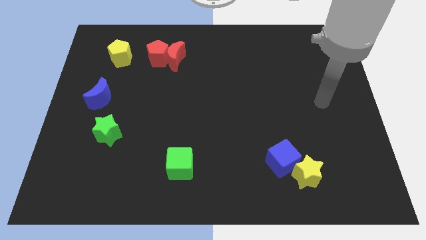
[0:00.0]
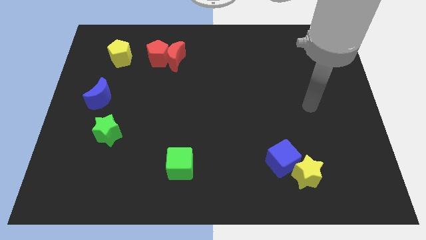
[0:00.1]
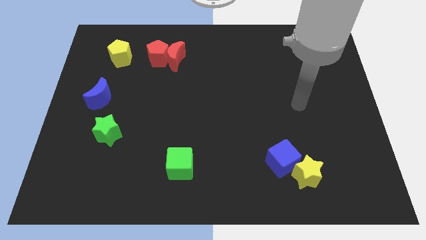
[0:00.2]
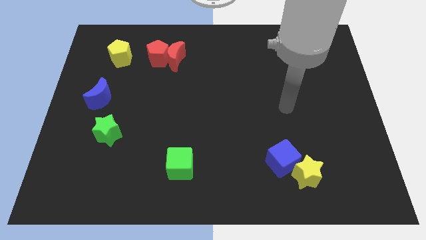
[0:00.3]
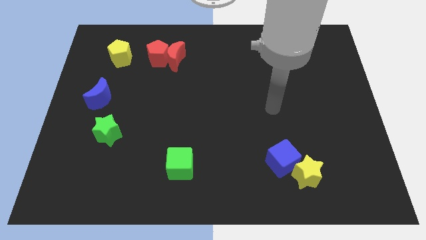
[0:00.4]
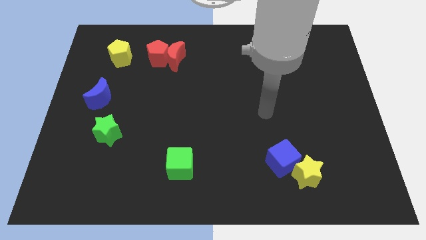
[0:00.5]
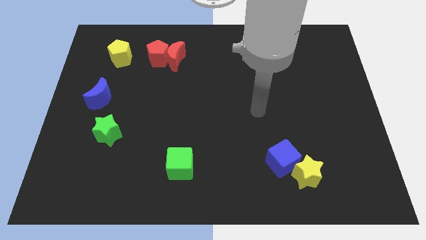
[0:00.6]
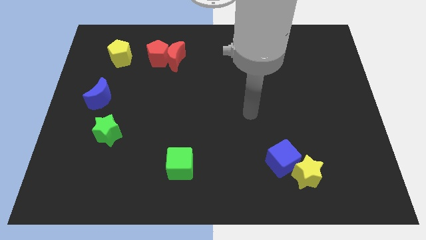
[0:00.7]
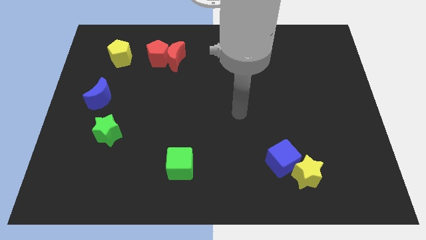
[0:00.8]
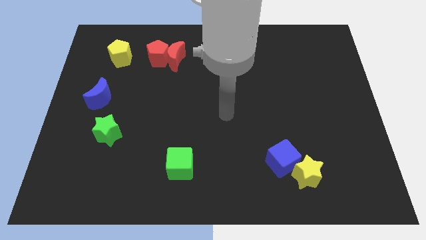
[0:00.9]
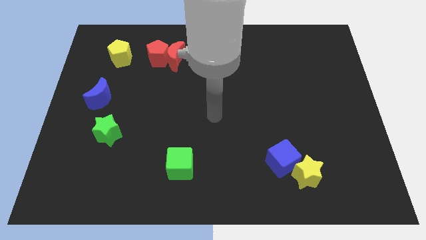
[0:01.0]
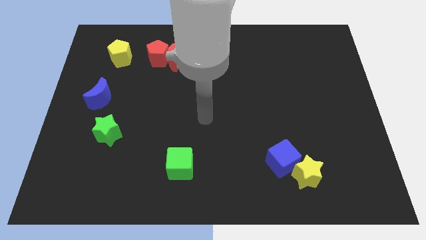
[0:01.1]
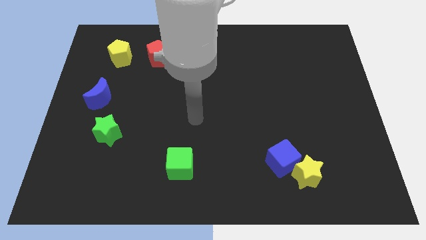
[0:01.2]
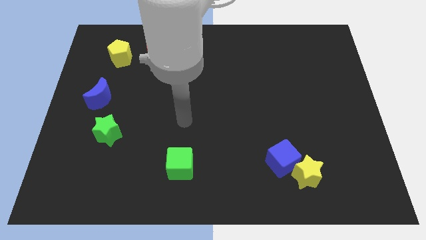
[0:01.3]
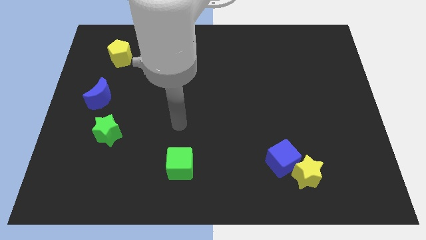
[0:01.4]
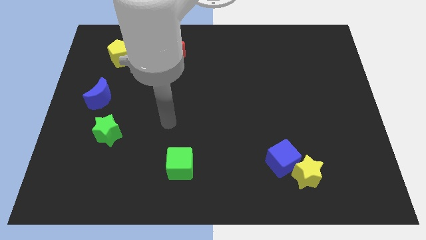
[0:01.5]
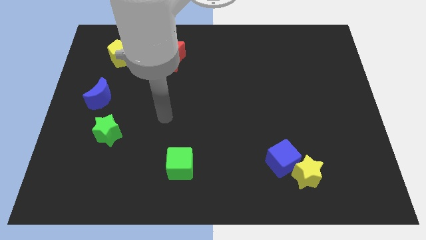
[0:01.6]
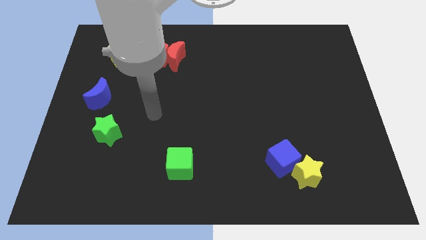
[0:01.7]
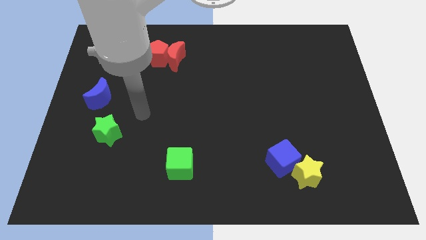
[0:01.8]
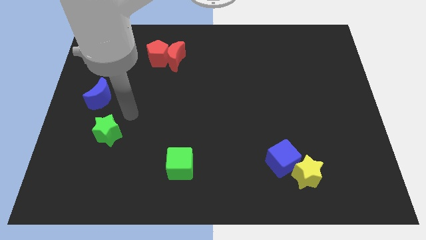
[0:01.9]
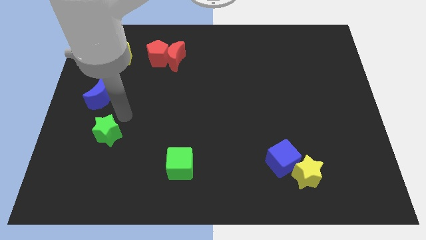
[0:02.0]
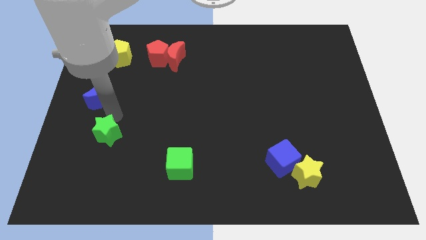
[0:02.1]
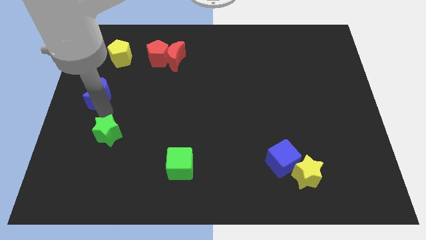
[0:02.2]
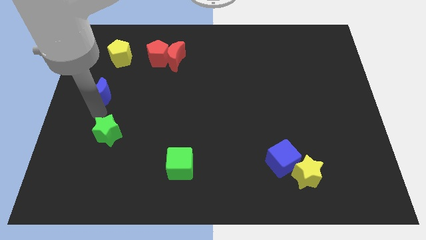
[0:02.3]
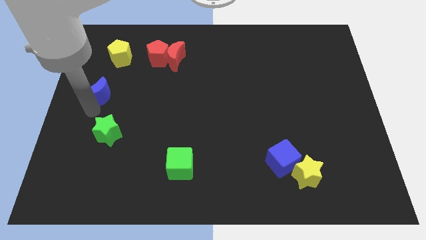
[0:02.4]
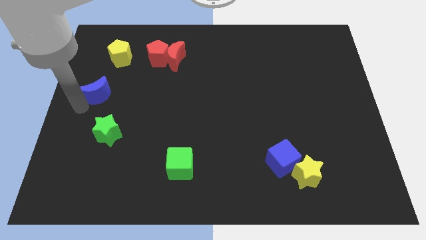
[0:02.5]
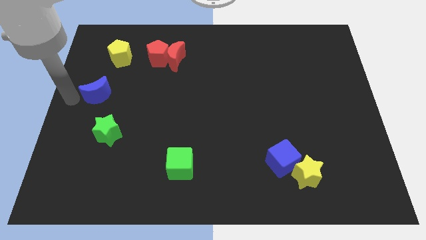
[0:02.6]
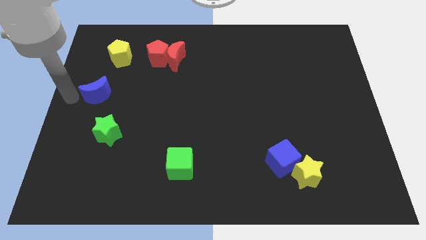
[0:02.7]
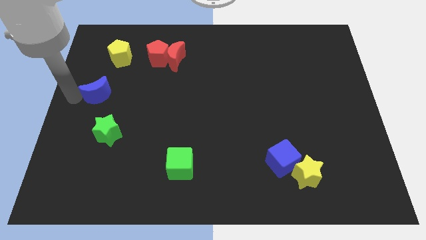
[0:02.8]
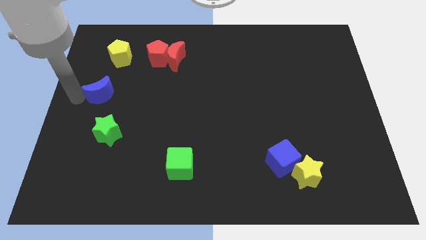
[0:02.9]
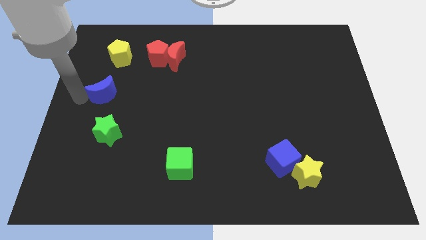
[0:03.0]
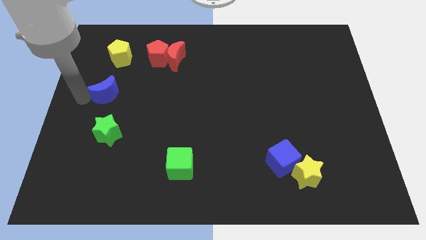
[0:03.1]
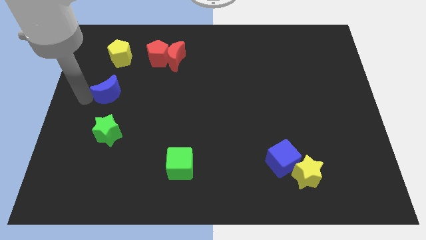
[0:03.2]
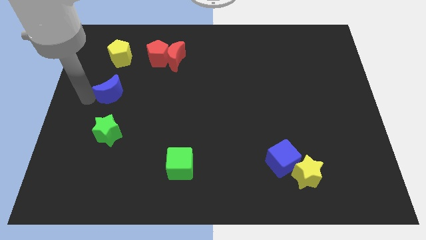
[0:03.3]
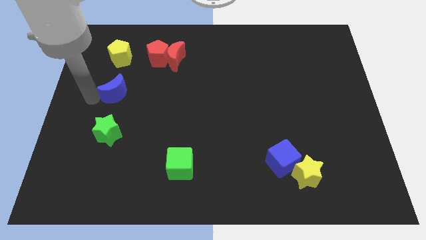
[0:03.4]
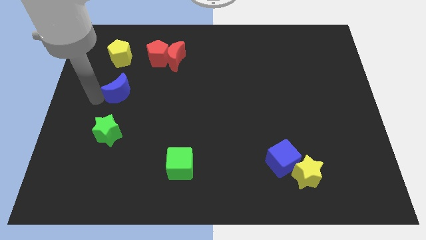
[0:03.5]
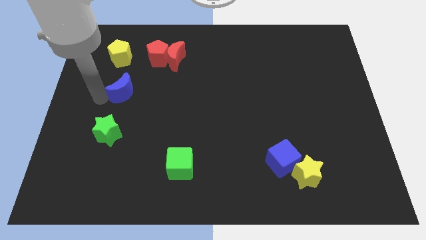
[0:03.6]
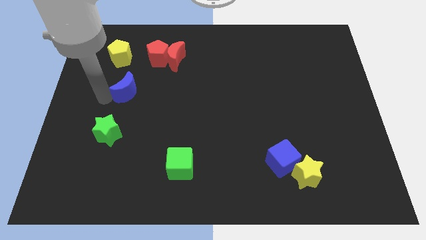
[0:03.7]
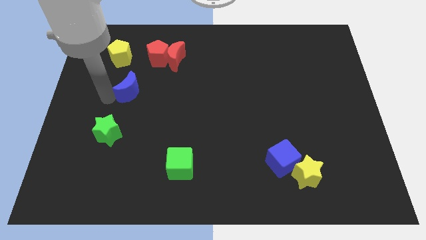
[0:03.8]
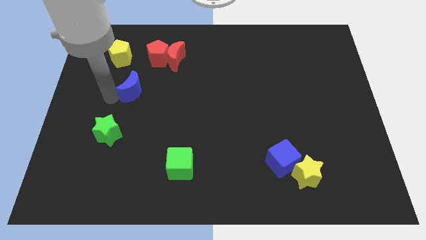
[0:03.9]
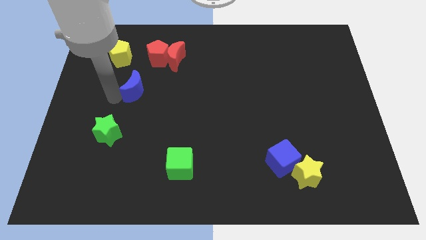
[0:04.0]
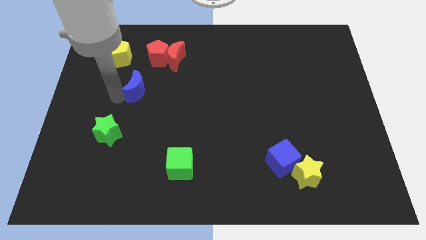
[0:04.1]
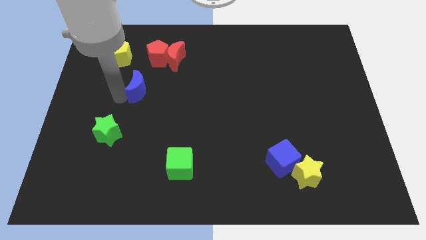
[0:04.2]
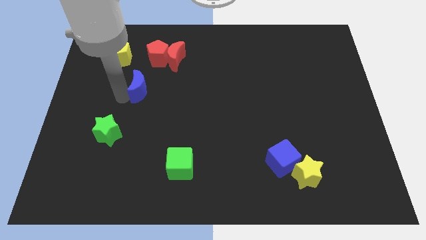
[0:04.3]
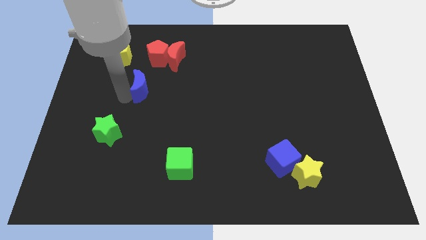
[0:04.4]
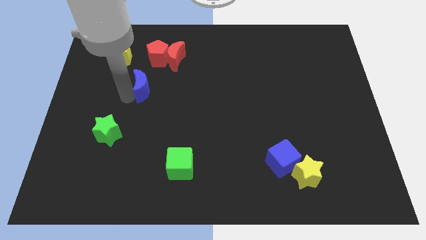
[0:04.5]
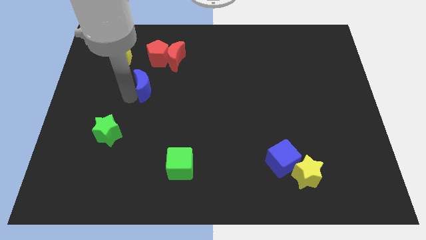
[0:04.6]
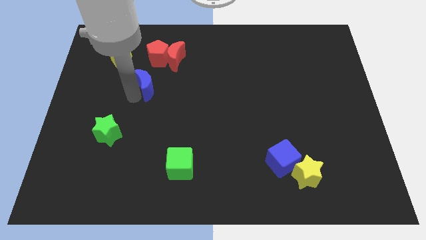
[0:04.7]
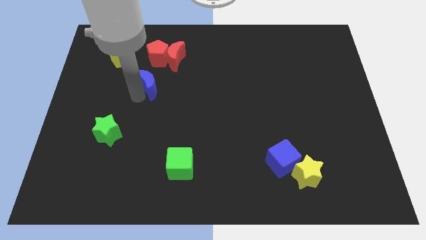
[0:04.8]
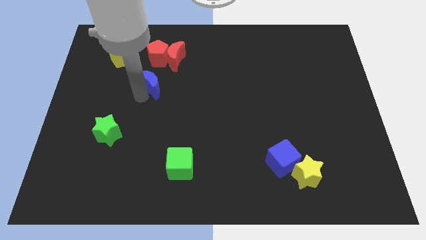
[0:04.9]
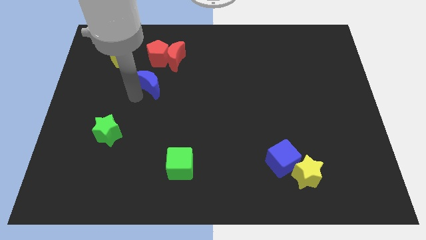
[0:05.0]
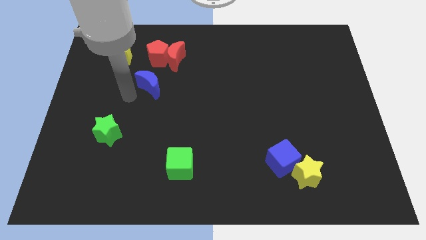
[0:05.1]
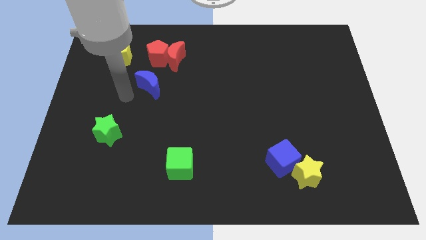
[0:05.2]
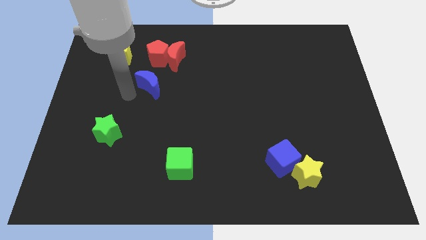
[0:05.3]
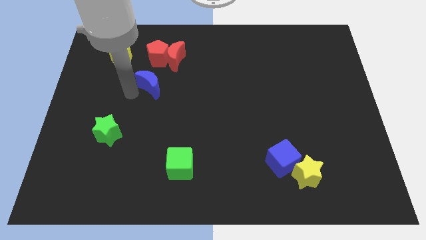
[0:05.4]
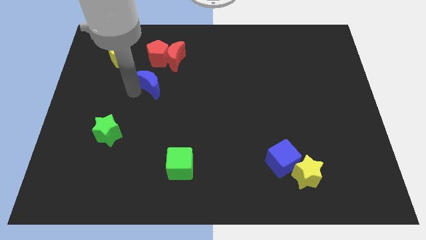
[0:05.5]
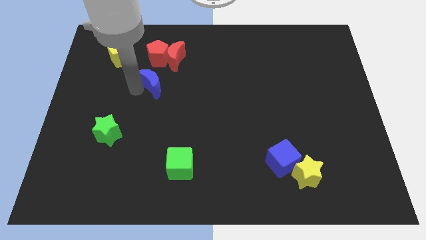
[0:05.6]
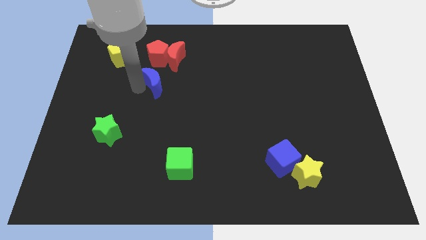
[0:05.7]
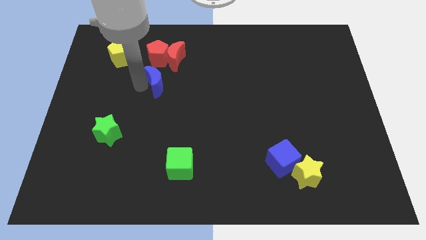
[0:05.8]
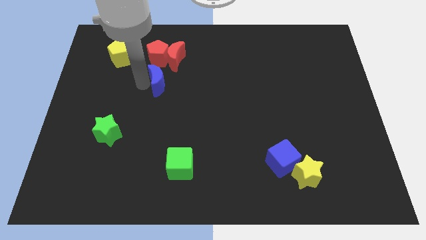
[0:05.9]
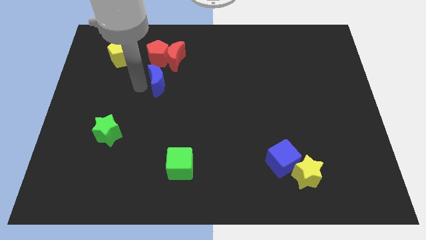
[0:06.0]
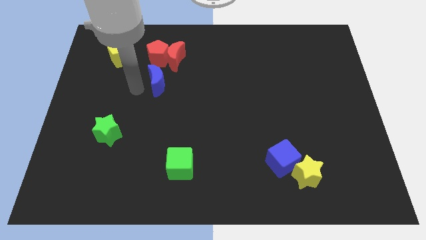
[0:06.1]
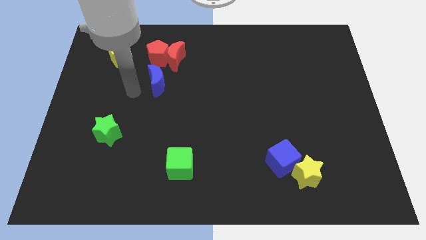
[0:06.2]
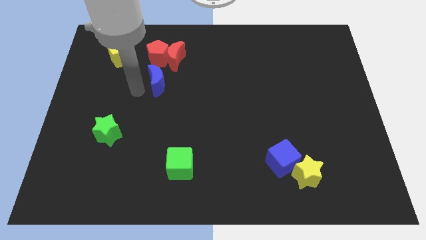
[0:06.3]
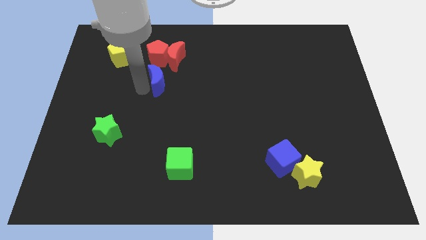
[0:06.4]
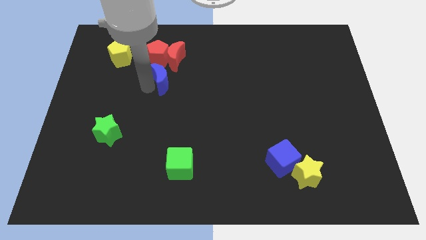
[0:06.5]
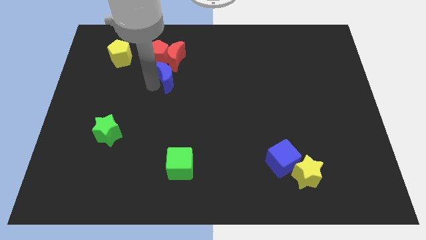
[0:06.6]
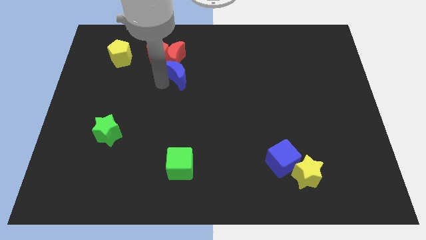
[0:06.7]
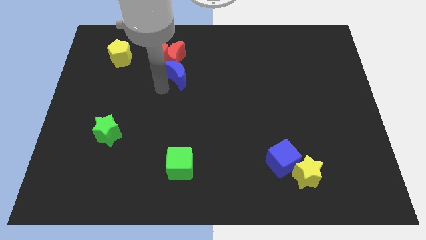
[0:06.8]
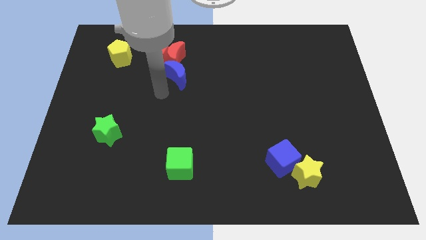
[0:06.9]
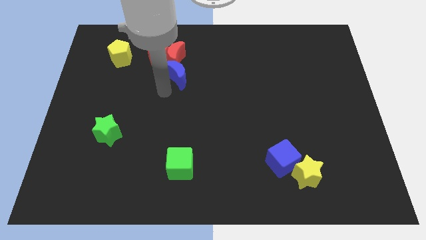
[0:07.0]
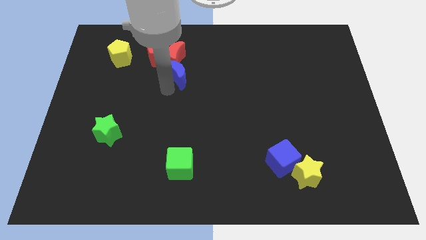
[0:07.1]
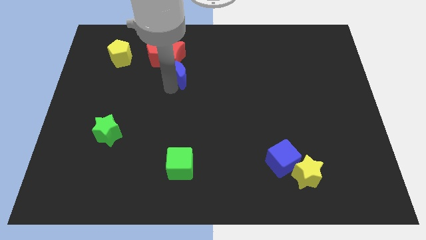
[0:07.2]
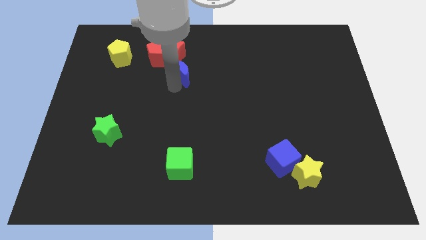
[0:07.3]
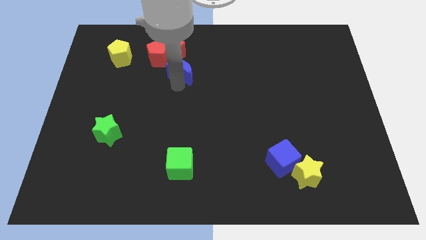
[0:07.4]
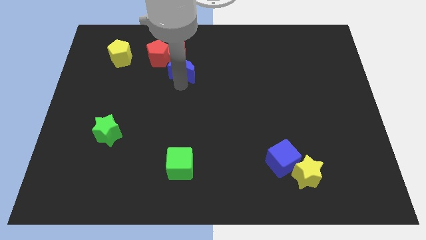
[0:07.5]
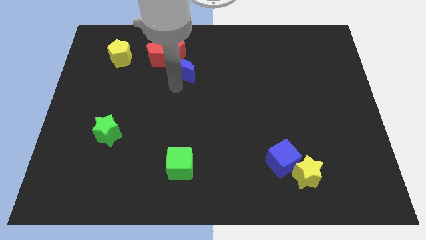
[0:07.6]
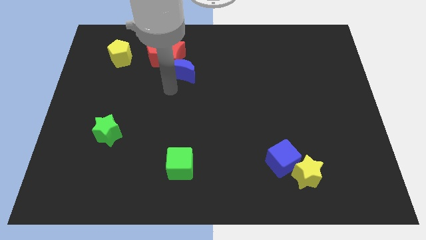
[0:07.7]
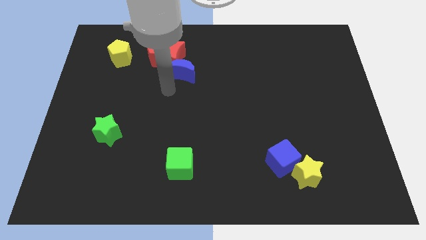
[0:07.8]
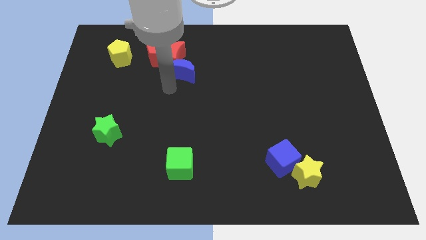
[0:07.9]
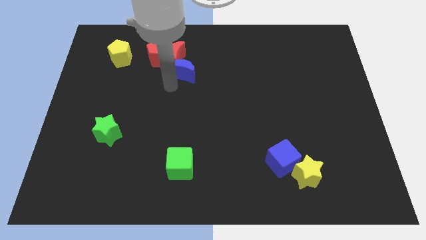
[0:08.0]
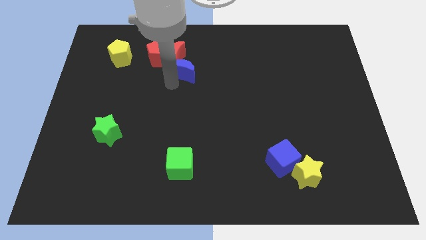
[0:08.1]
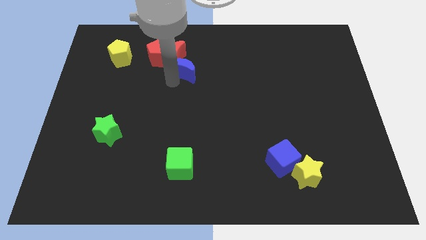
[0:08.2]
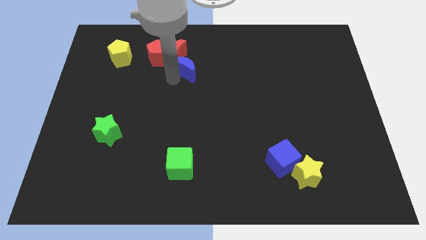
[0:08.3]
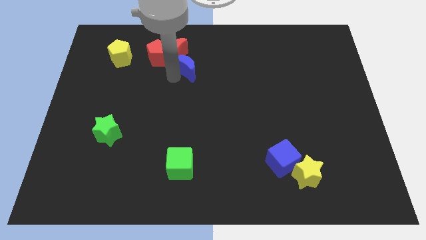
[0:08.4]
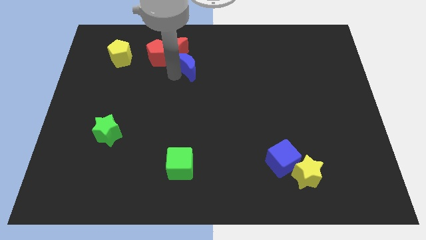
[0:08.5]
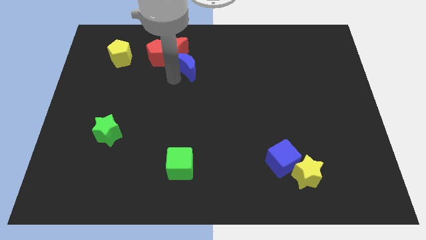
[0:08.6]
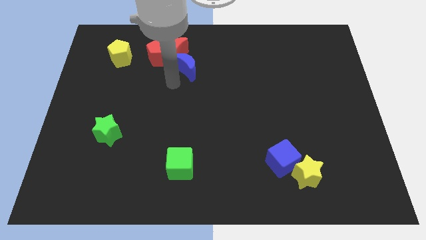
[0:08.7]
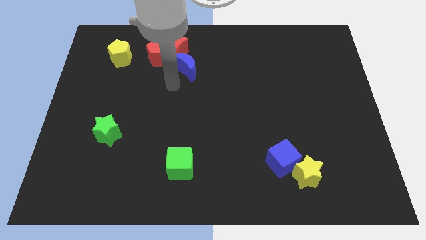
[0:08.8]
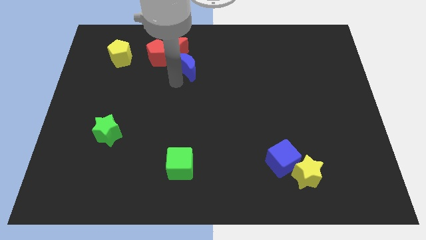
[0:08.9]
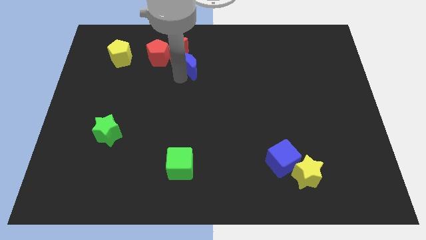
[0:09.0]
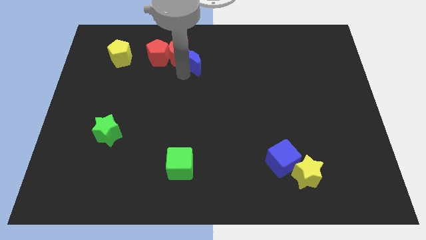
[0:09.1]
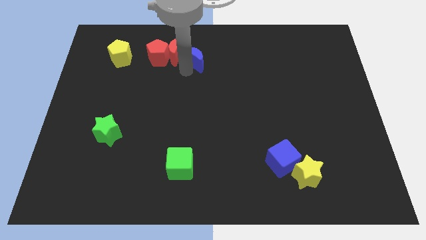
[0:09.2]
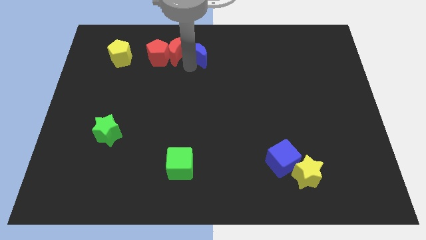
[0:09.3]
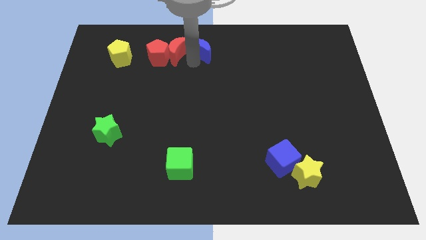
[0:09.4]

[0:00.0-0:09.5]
push the blue moon to the top side
